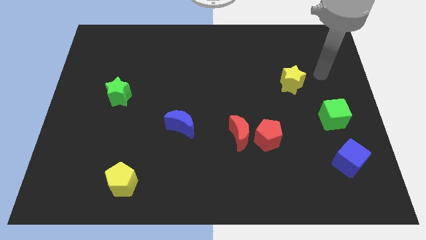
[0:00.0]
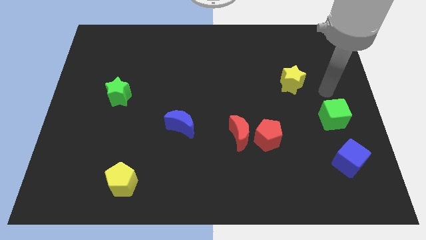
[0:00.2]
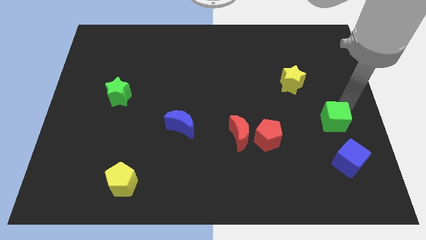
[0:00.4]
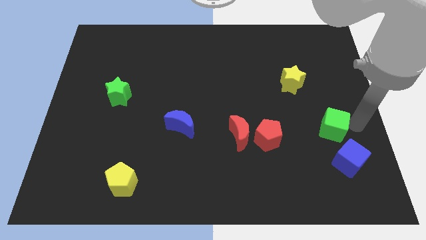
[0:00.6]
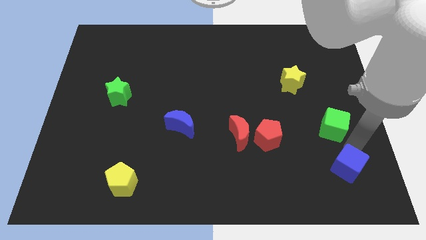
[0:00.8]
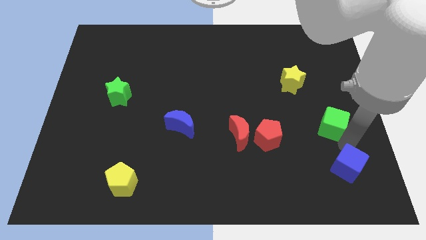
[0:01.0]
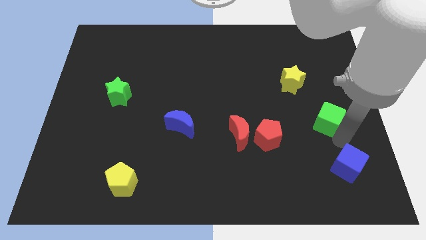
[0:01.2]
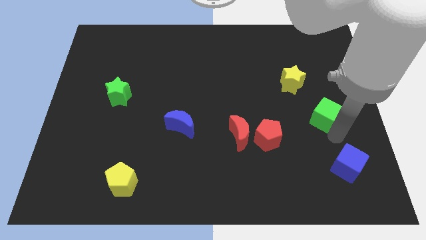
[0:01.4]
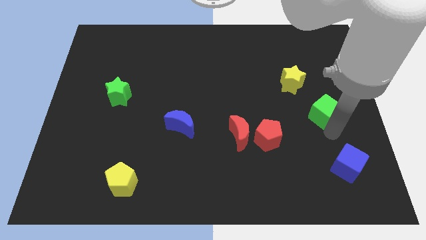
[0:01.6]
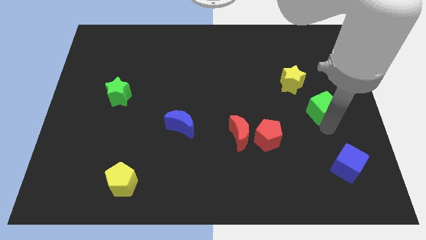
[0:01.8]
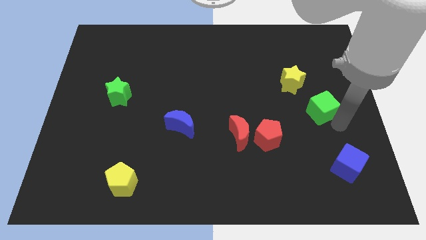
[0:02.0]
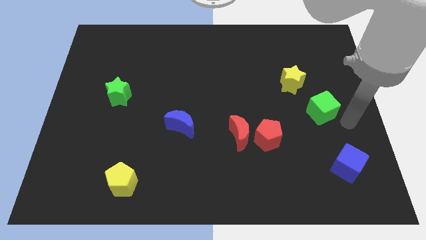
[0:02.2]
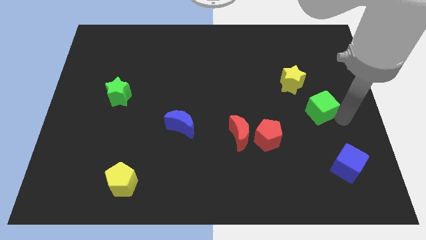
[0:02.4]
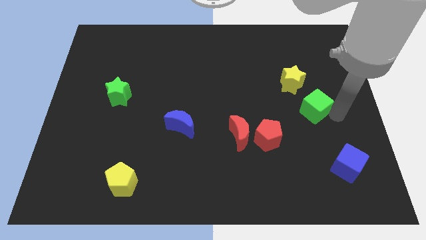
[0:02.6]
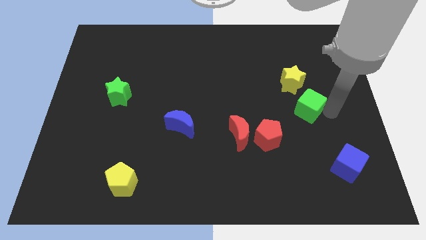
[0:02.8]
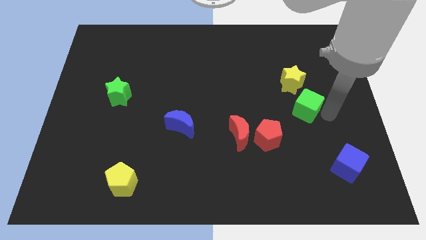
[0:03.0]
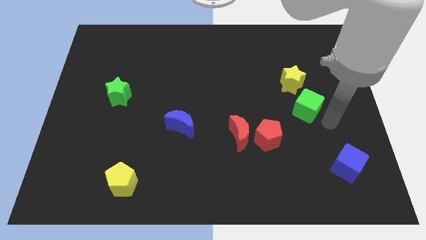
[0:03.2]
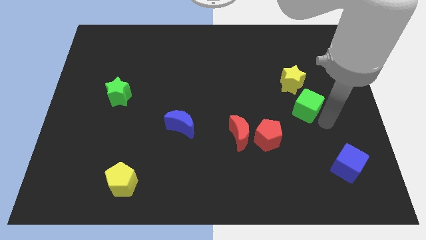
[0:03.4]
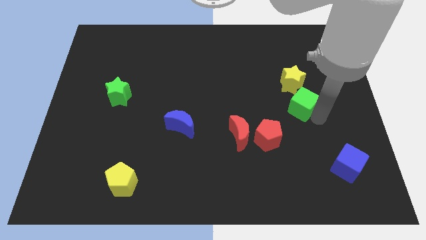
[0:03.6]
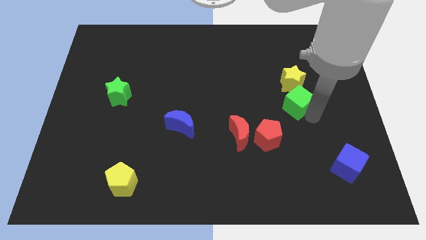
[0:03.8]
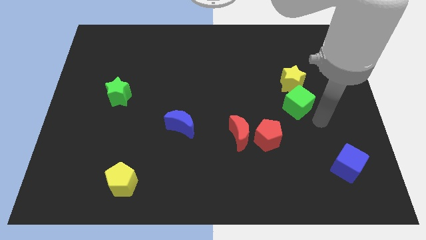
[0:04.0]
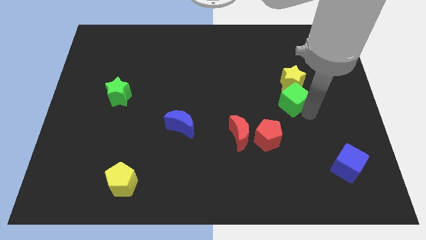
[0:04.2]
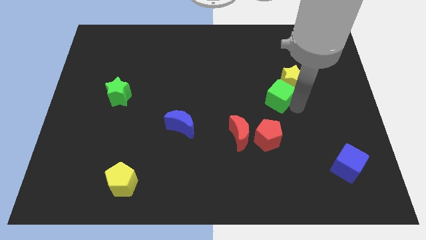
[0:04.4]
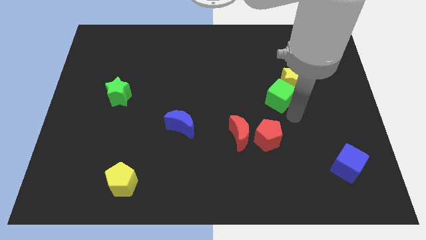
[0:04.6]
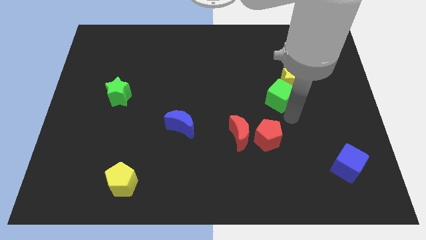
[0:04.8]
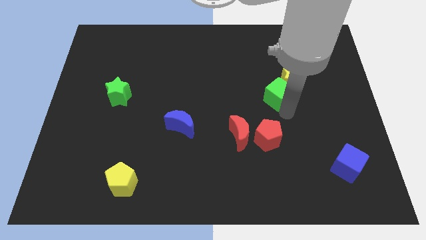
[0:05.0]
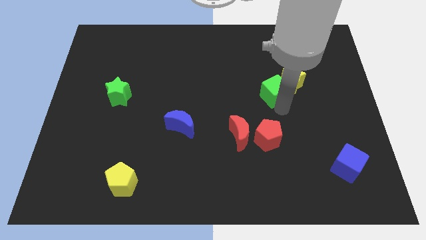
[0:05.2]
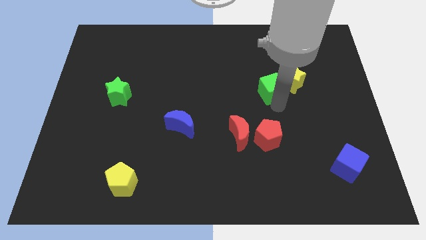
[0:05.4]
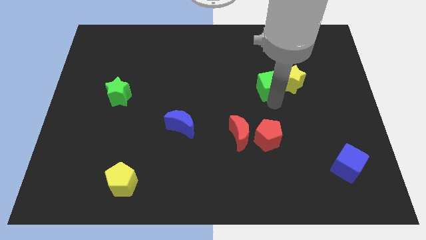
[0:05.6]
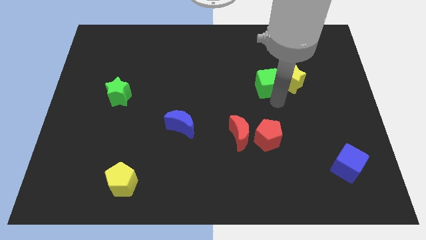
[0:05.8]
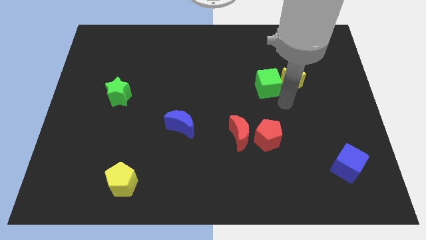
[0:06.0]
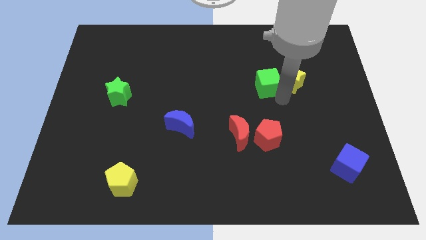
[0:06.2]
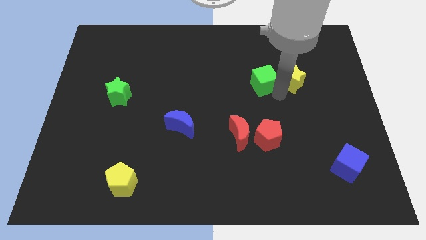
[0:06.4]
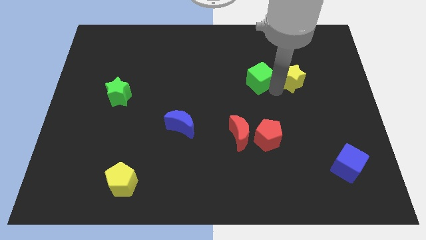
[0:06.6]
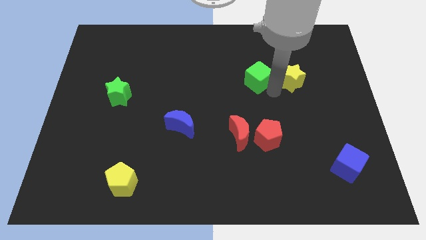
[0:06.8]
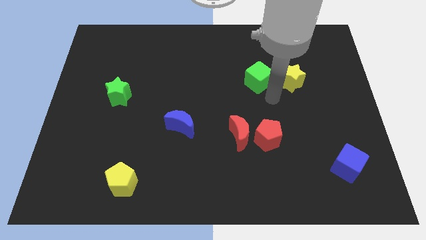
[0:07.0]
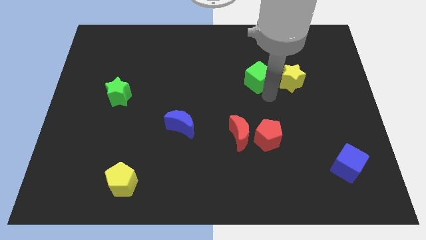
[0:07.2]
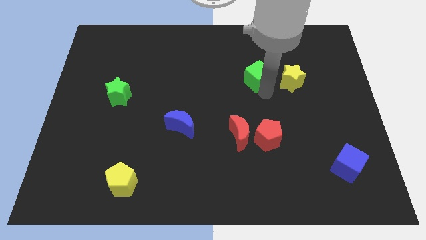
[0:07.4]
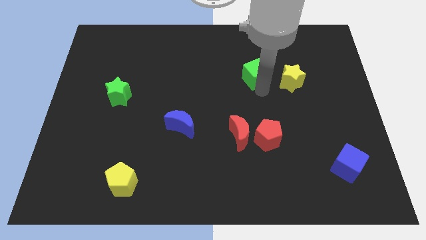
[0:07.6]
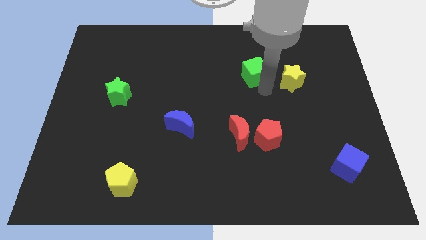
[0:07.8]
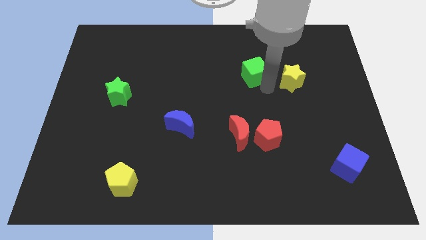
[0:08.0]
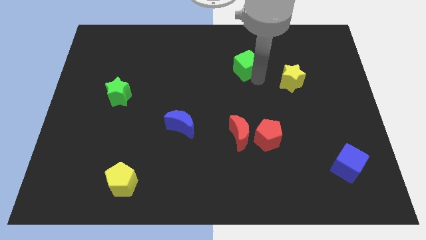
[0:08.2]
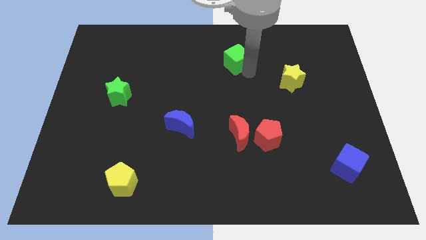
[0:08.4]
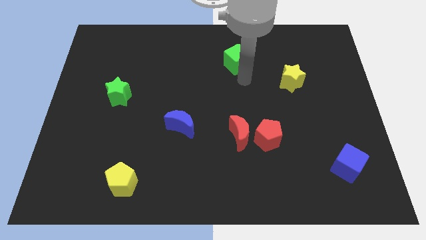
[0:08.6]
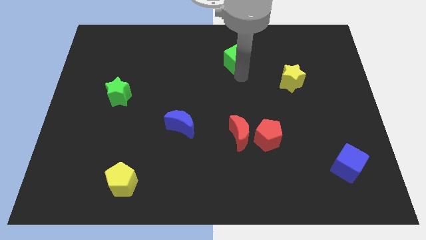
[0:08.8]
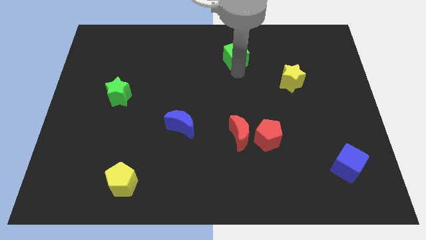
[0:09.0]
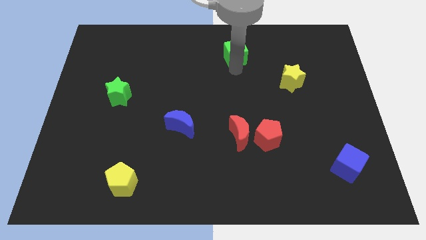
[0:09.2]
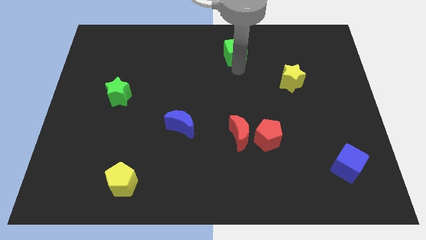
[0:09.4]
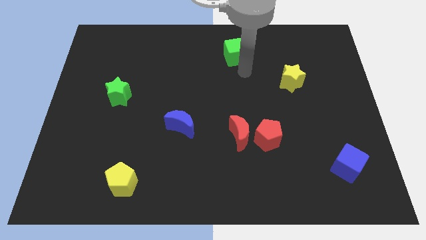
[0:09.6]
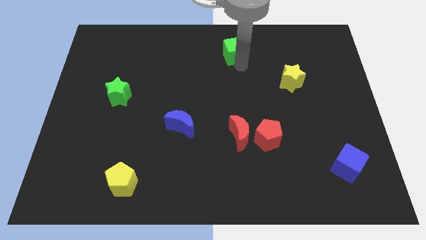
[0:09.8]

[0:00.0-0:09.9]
slide the green cube to the top side

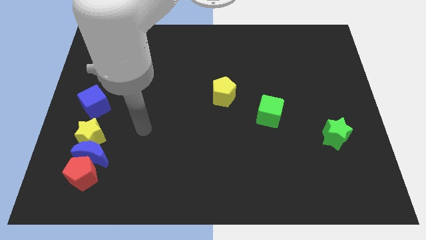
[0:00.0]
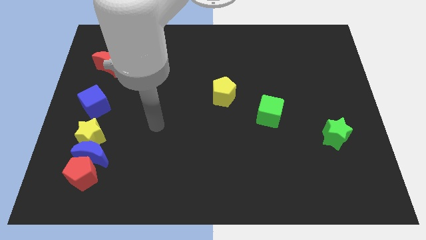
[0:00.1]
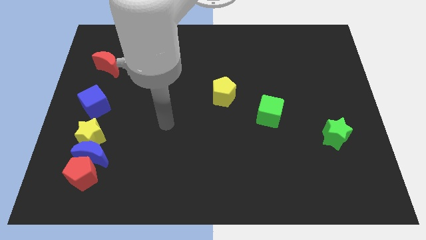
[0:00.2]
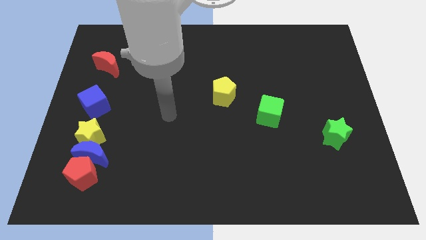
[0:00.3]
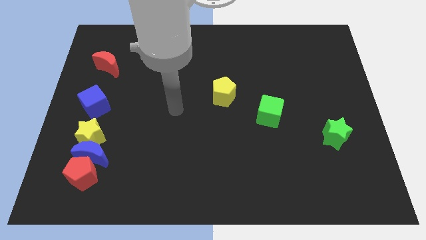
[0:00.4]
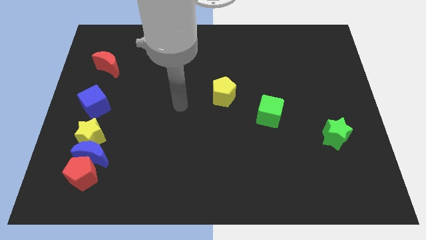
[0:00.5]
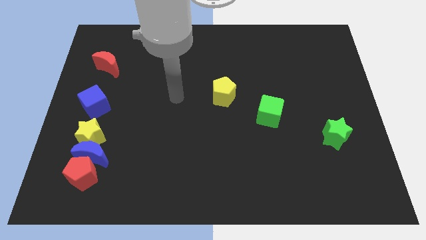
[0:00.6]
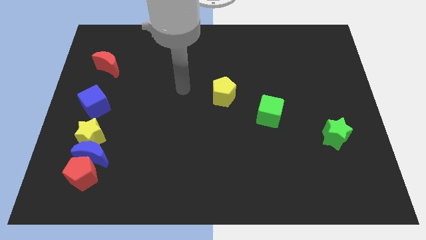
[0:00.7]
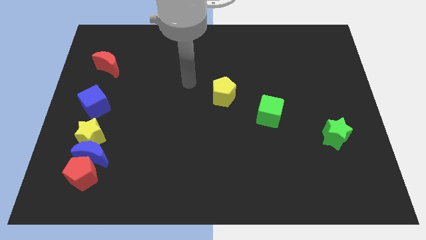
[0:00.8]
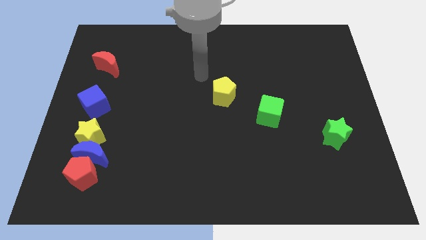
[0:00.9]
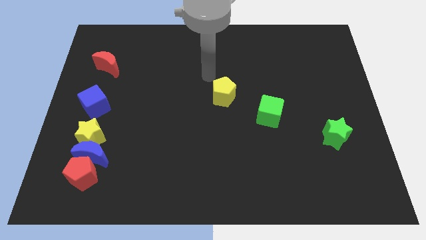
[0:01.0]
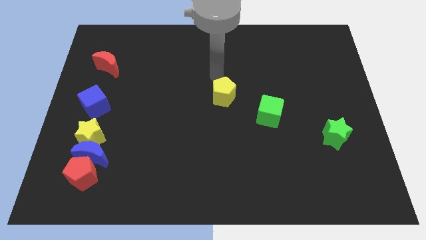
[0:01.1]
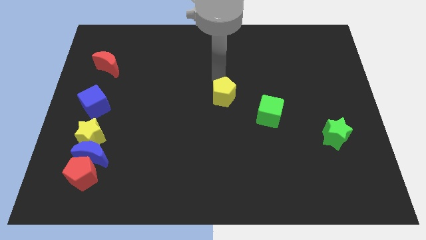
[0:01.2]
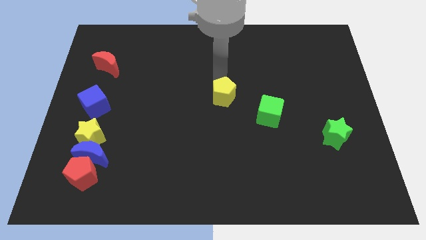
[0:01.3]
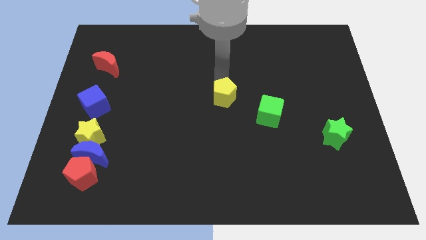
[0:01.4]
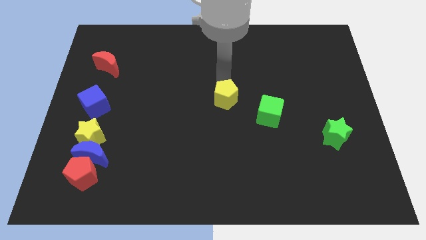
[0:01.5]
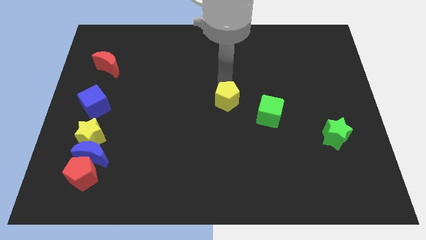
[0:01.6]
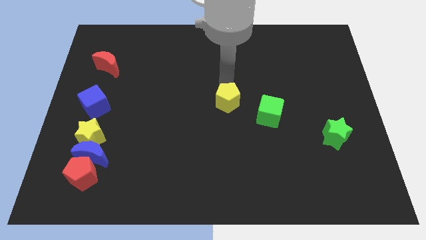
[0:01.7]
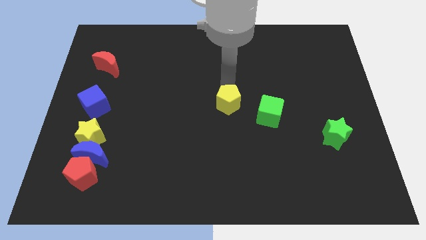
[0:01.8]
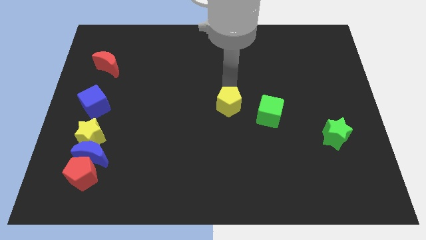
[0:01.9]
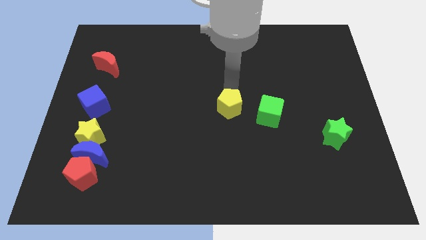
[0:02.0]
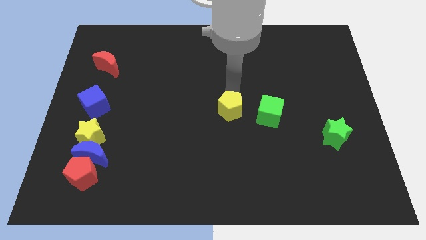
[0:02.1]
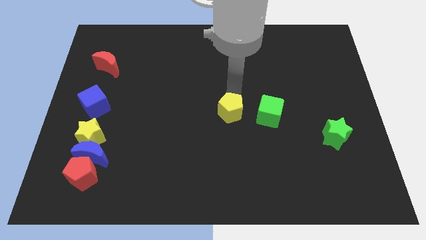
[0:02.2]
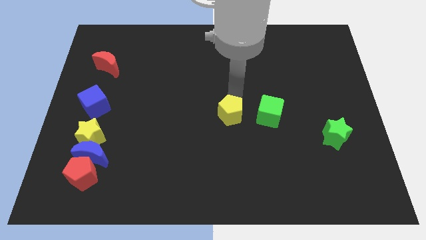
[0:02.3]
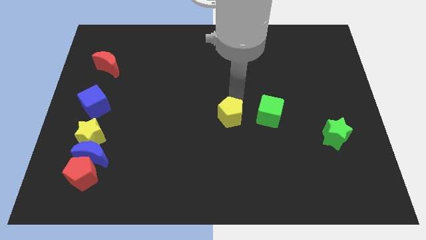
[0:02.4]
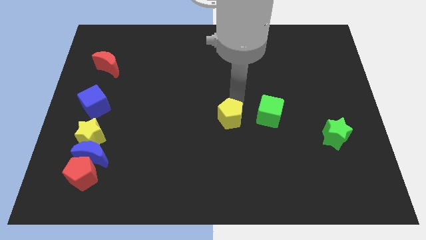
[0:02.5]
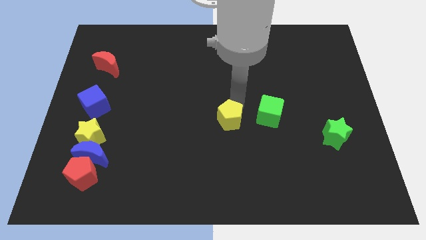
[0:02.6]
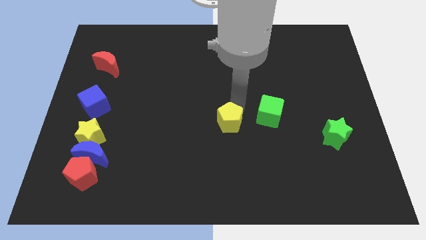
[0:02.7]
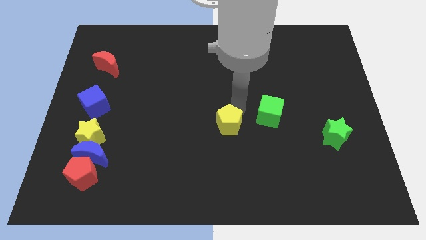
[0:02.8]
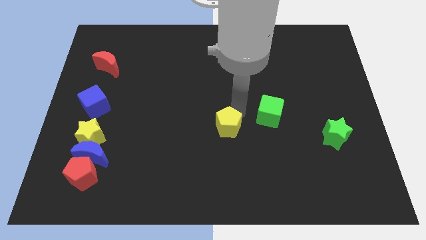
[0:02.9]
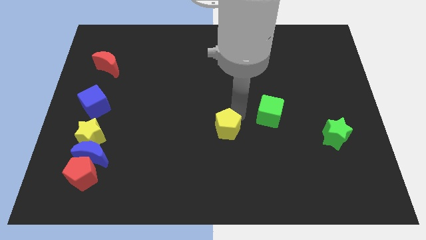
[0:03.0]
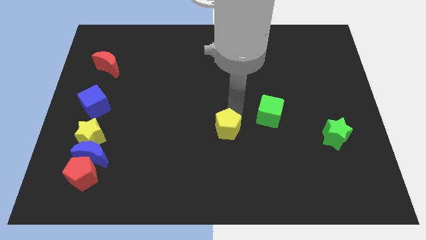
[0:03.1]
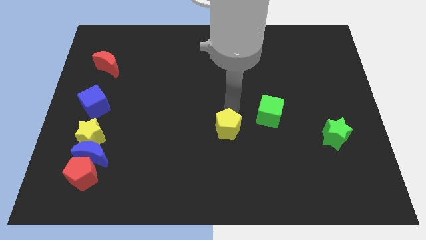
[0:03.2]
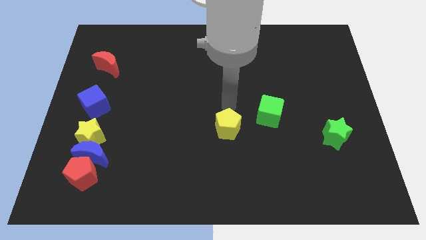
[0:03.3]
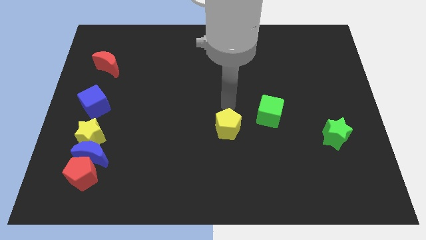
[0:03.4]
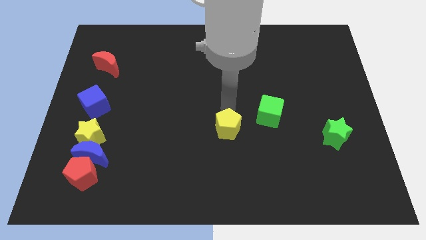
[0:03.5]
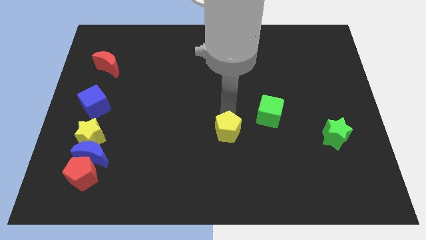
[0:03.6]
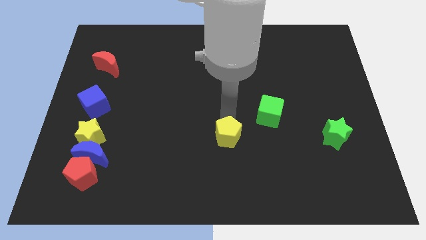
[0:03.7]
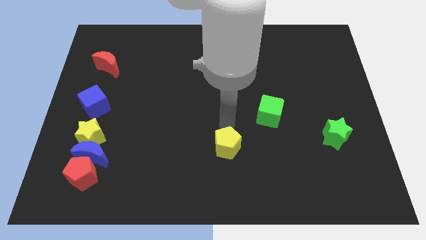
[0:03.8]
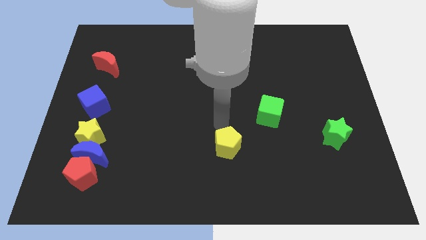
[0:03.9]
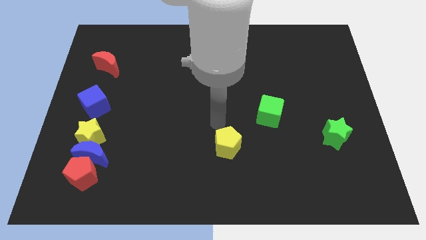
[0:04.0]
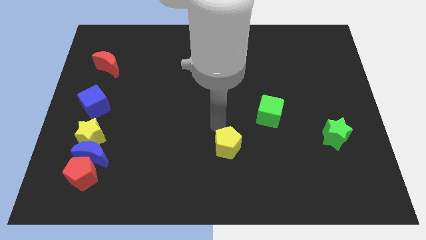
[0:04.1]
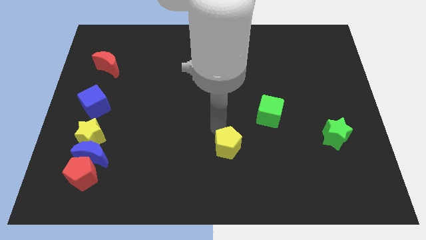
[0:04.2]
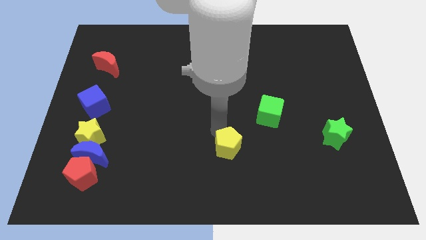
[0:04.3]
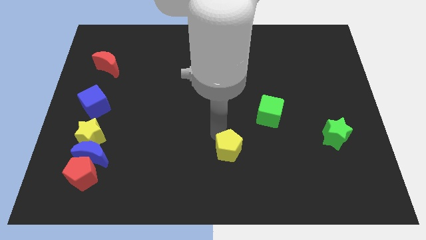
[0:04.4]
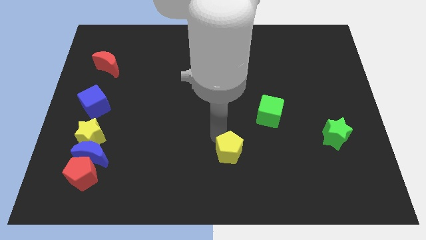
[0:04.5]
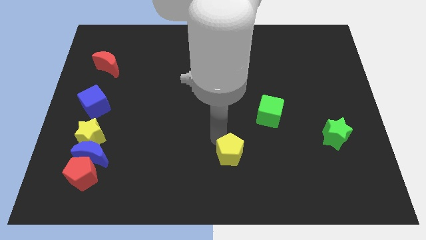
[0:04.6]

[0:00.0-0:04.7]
put the yellow pentagon to the bottom
